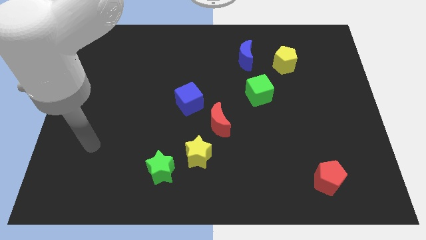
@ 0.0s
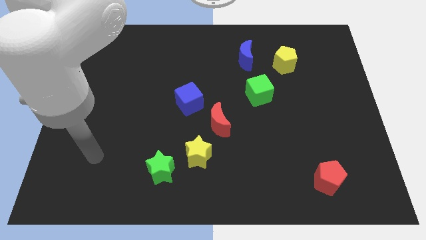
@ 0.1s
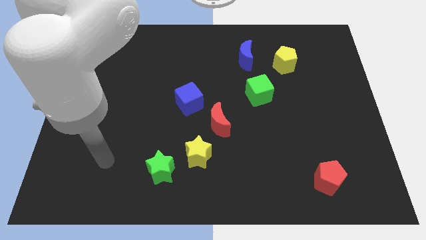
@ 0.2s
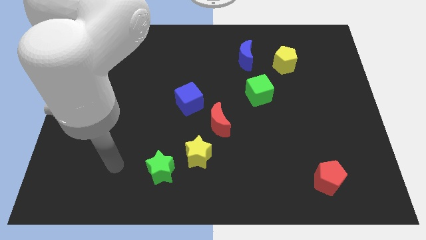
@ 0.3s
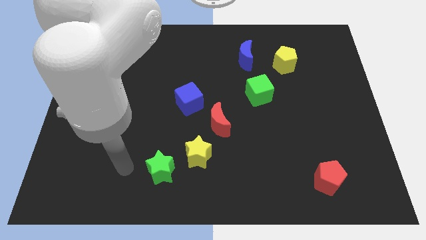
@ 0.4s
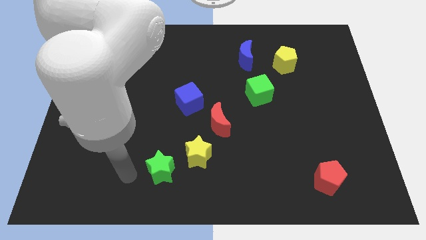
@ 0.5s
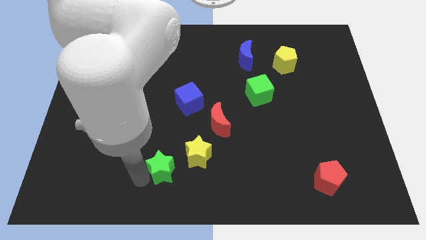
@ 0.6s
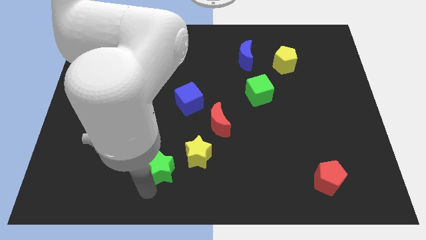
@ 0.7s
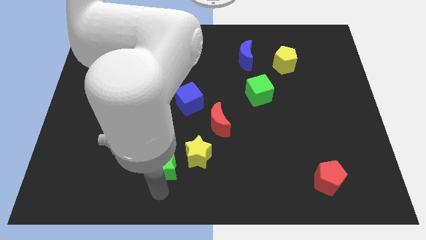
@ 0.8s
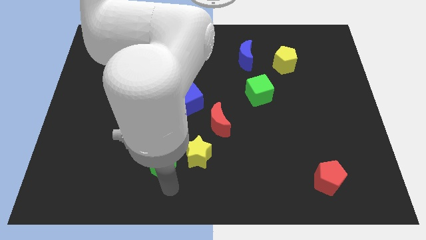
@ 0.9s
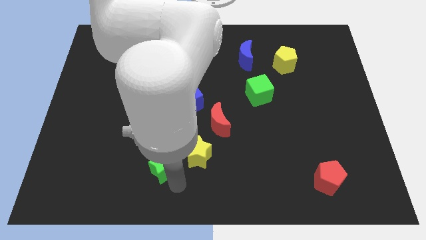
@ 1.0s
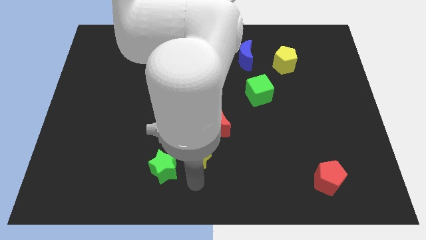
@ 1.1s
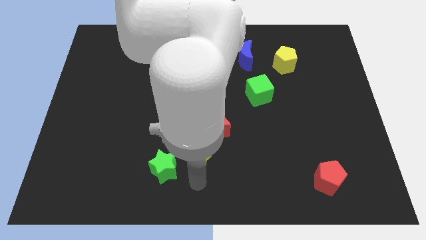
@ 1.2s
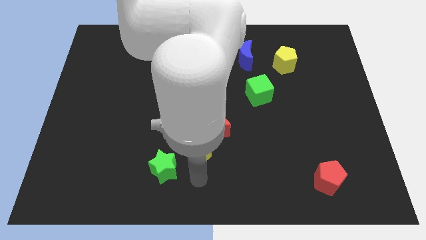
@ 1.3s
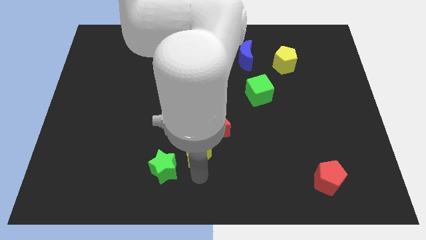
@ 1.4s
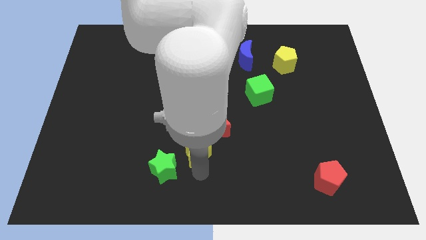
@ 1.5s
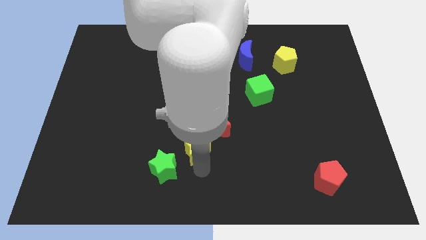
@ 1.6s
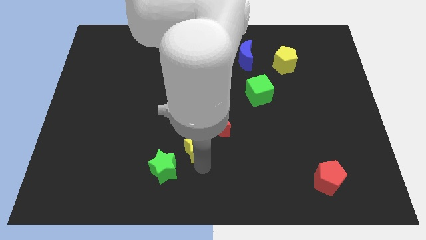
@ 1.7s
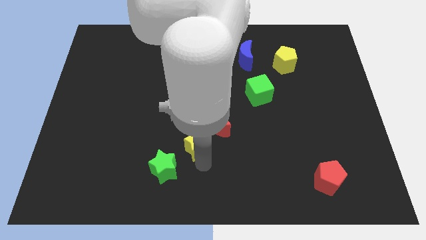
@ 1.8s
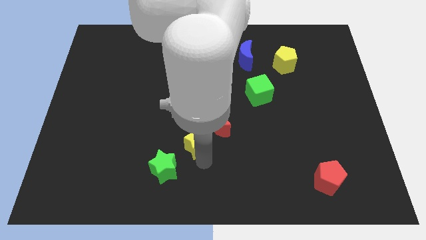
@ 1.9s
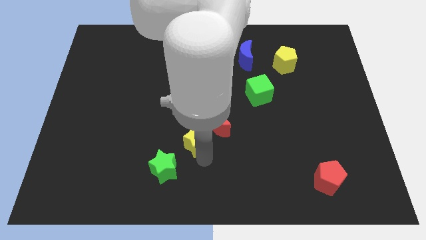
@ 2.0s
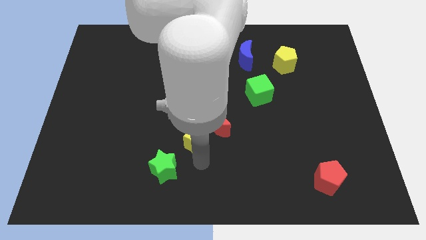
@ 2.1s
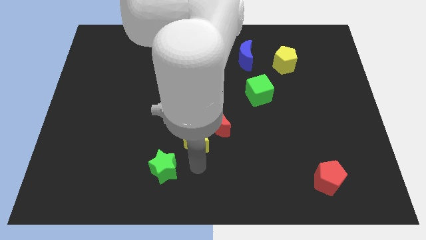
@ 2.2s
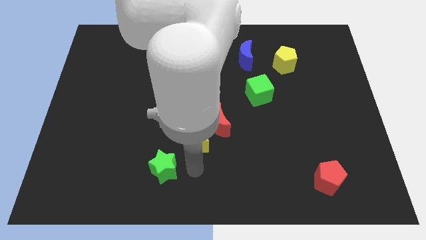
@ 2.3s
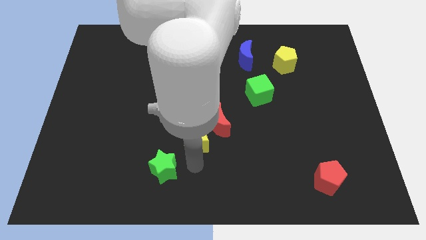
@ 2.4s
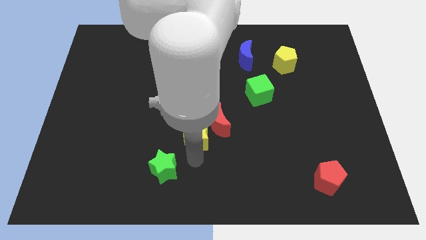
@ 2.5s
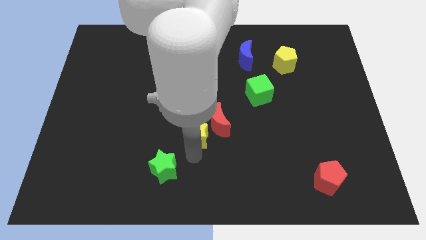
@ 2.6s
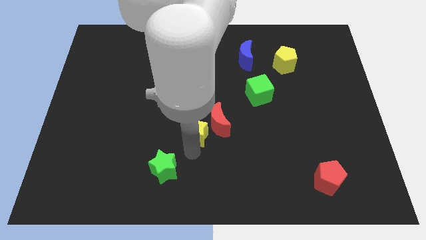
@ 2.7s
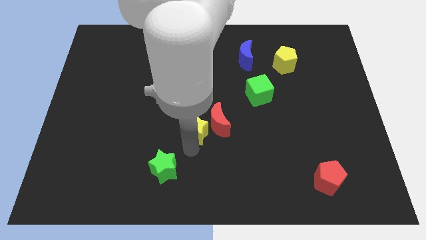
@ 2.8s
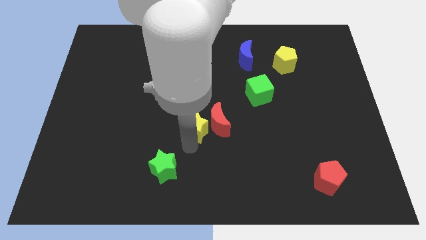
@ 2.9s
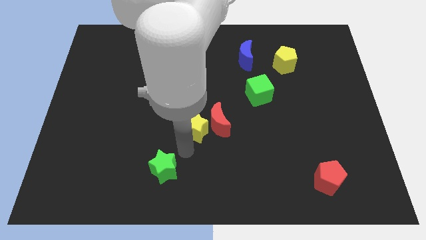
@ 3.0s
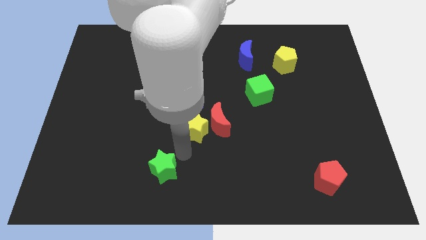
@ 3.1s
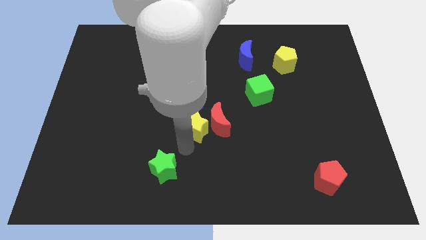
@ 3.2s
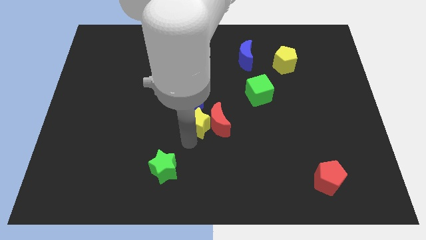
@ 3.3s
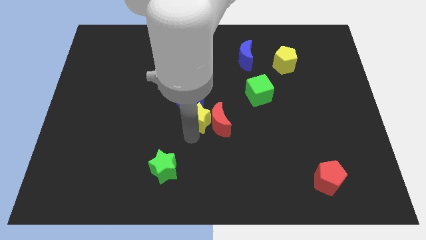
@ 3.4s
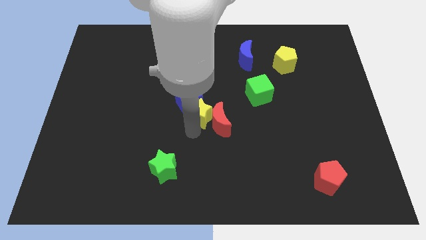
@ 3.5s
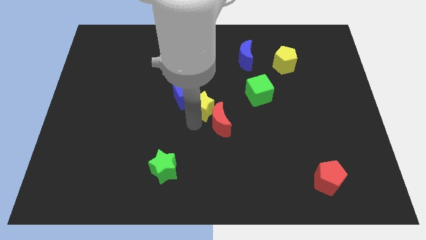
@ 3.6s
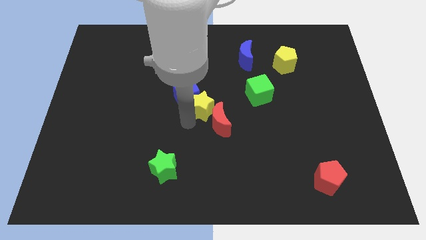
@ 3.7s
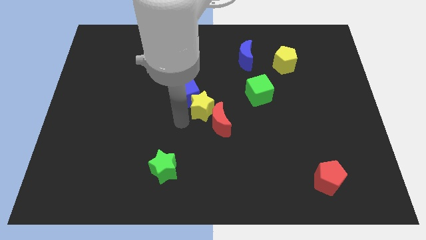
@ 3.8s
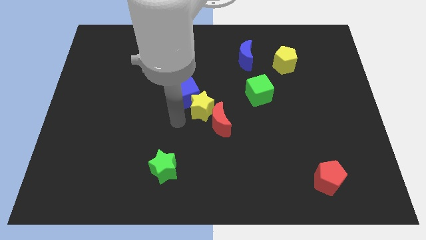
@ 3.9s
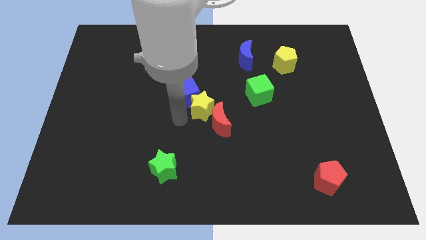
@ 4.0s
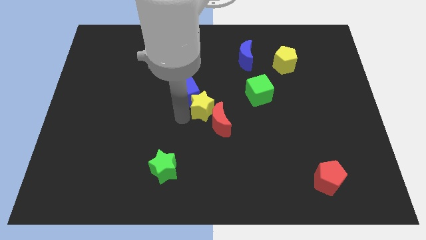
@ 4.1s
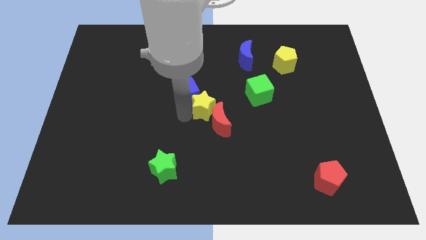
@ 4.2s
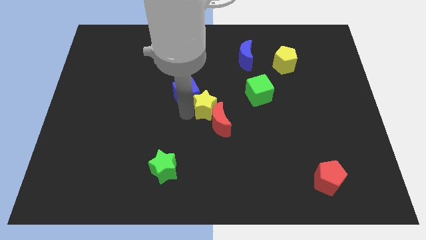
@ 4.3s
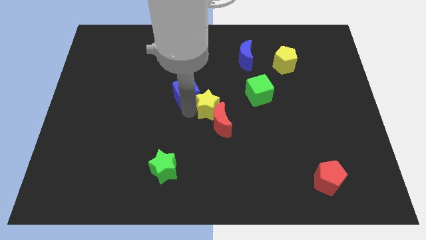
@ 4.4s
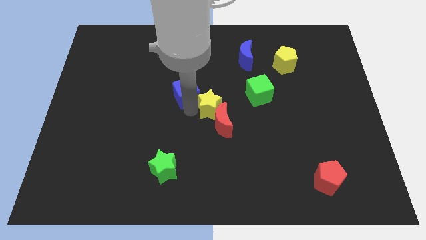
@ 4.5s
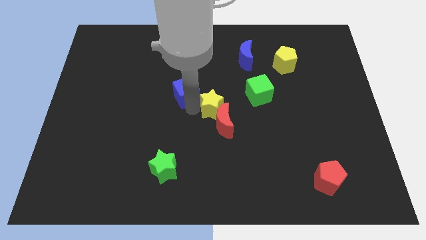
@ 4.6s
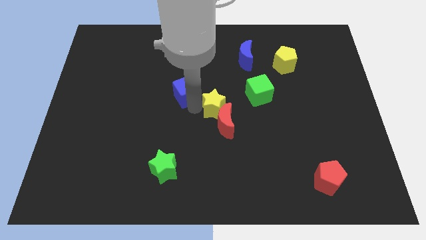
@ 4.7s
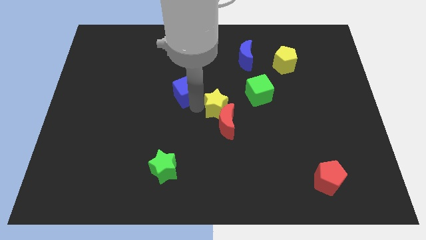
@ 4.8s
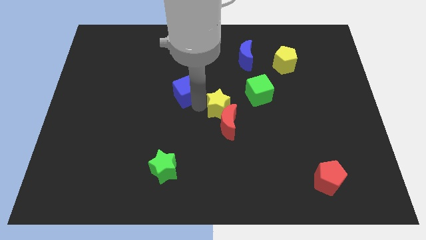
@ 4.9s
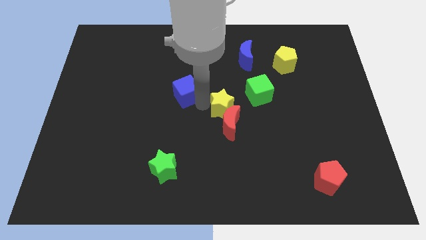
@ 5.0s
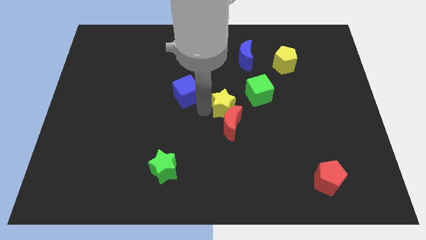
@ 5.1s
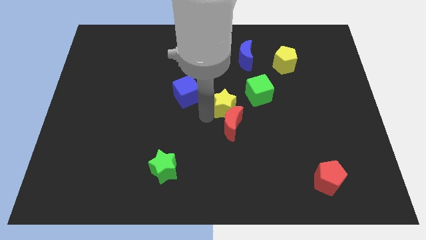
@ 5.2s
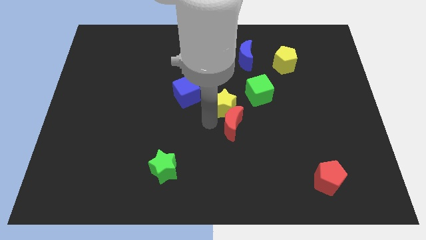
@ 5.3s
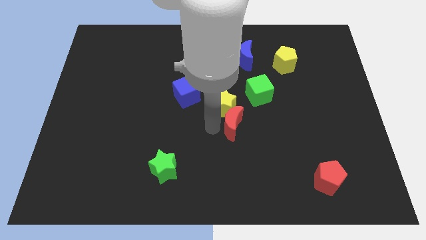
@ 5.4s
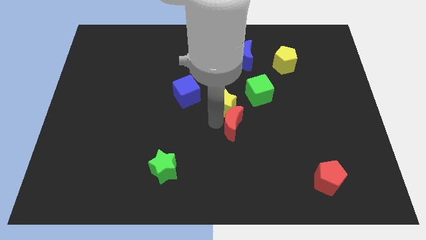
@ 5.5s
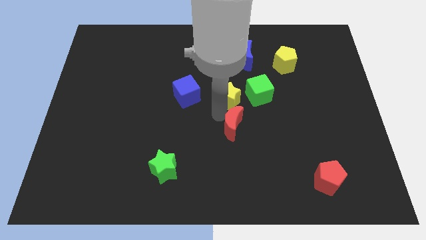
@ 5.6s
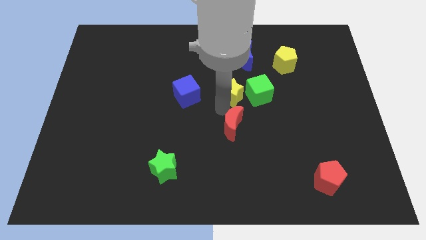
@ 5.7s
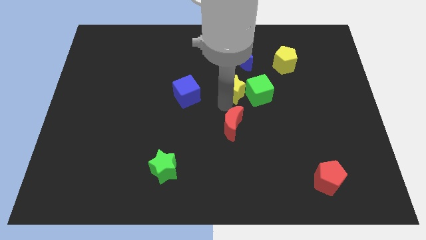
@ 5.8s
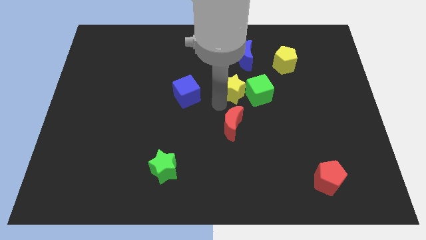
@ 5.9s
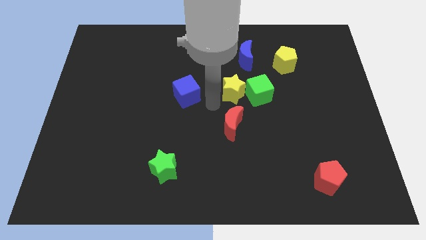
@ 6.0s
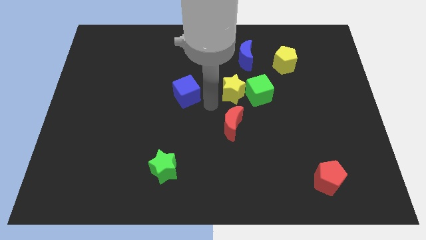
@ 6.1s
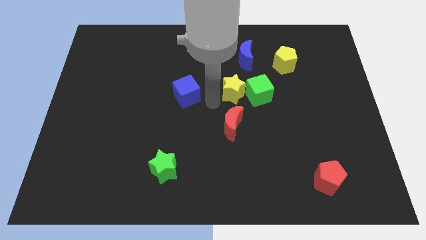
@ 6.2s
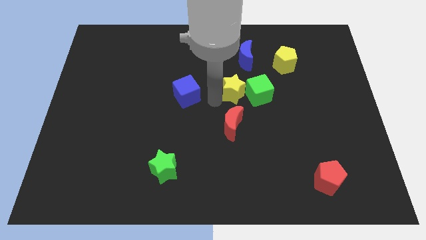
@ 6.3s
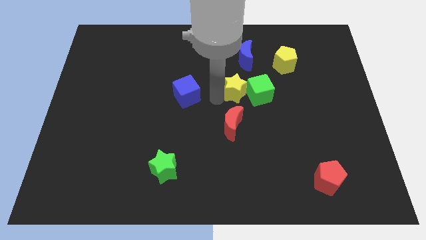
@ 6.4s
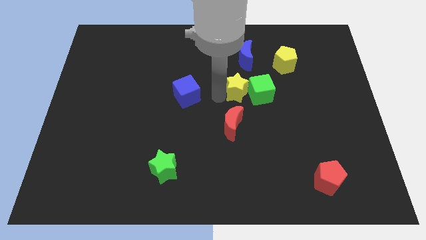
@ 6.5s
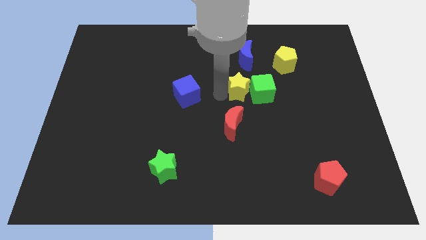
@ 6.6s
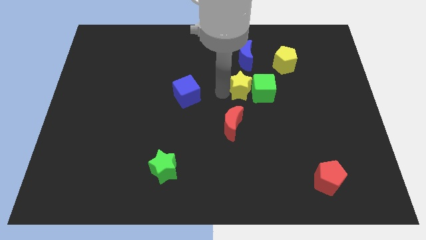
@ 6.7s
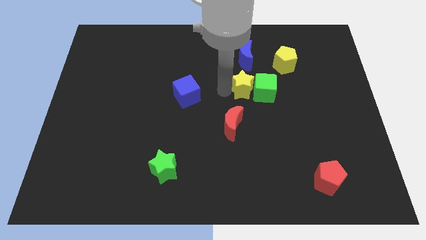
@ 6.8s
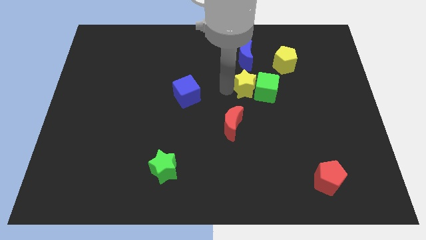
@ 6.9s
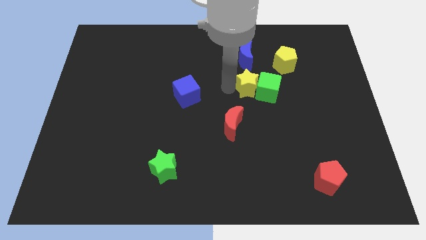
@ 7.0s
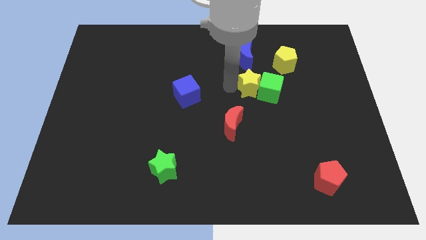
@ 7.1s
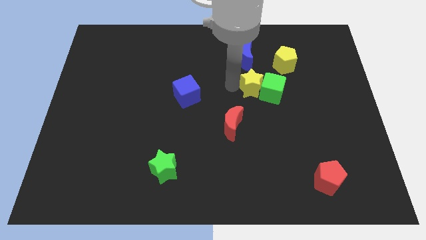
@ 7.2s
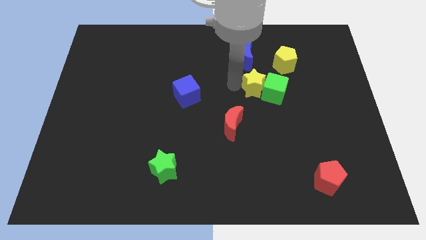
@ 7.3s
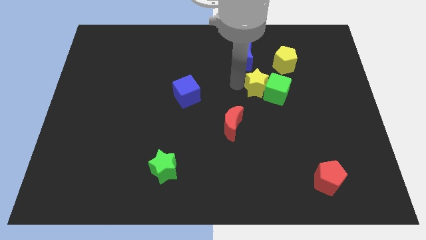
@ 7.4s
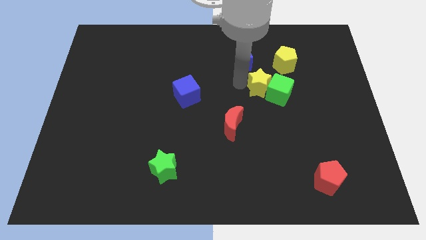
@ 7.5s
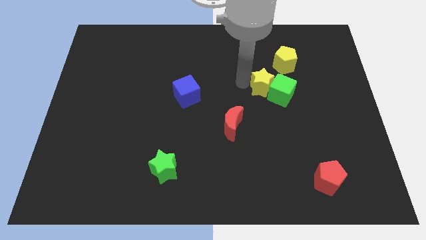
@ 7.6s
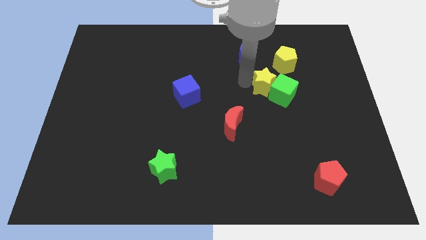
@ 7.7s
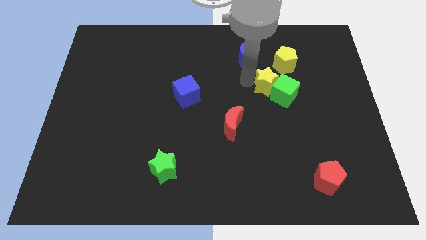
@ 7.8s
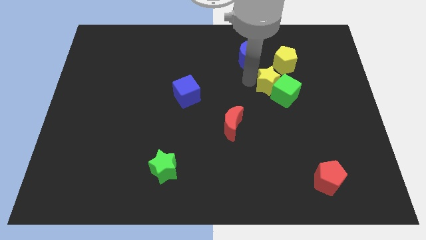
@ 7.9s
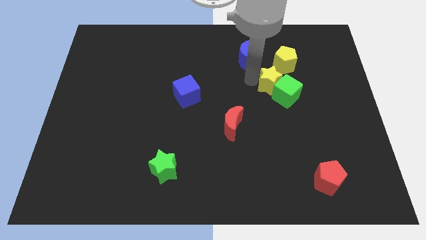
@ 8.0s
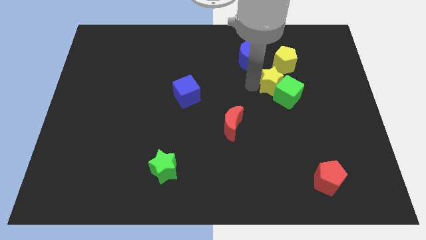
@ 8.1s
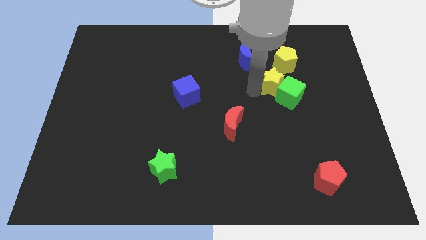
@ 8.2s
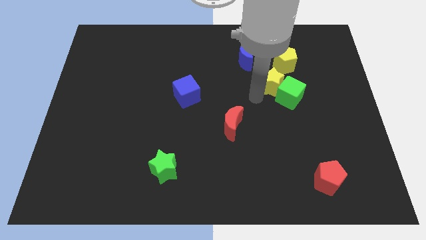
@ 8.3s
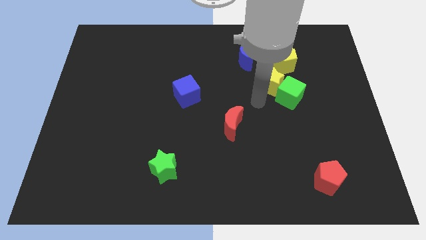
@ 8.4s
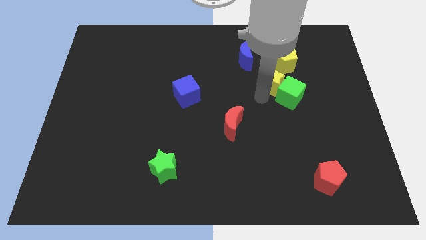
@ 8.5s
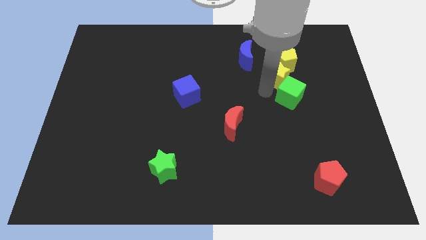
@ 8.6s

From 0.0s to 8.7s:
put the yellow star towards the yellow pentagon
